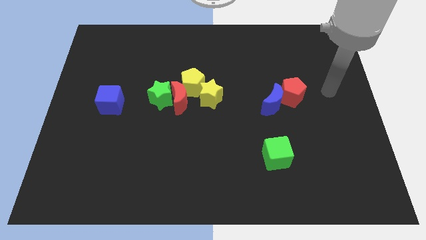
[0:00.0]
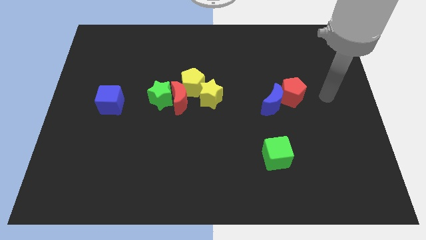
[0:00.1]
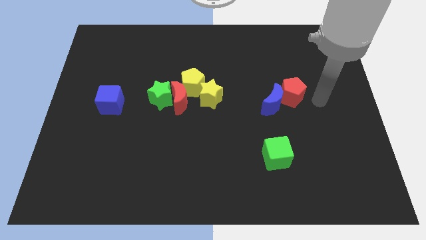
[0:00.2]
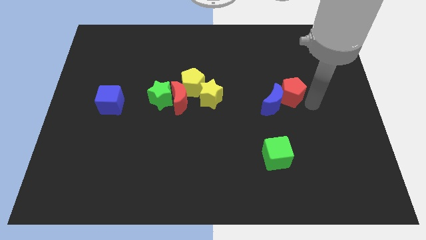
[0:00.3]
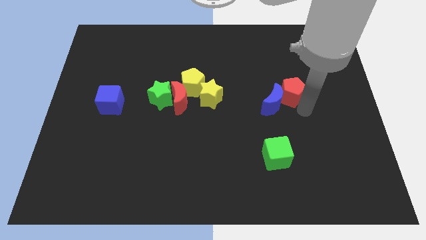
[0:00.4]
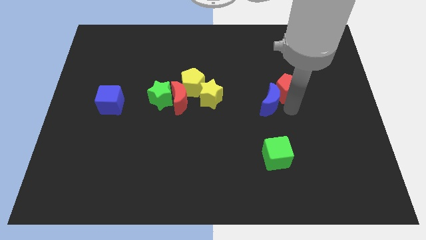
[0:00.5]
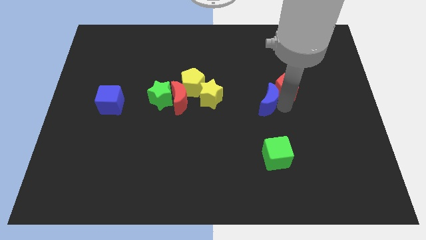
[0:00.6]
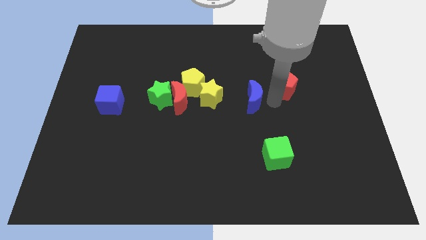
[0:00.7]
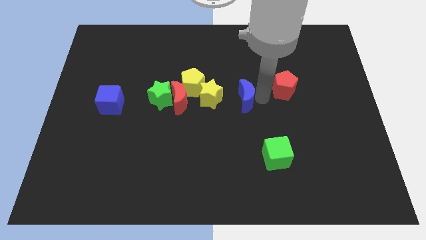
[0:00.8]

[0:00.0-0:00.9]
separate the red pentagon from the blue moon

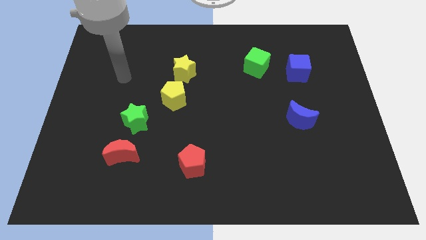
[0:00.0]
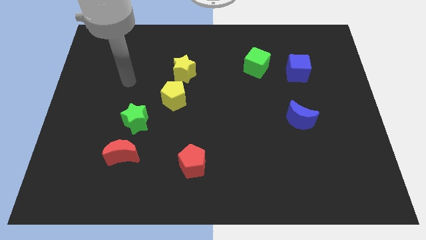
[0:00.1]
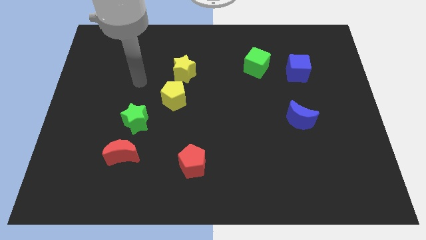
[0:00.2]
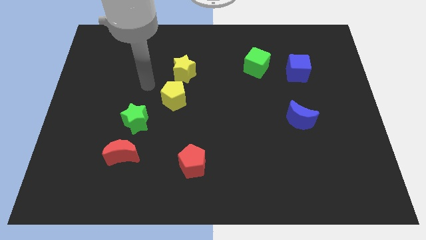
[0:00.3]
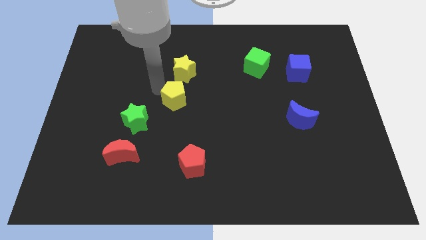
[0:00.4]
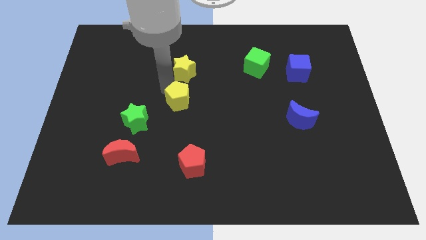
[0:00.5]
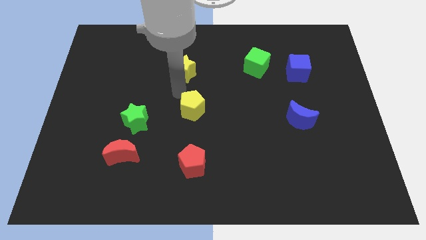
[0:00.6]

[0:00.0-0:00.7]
separate the yellow star from the yellow pentagon

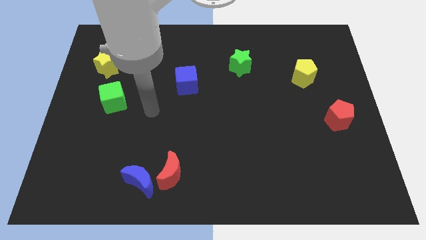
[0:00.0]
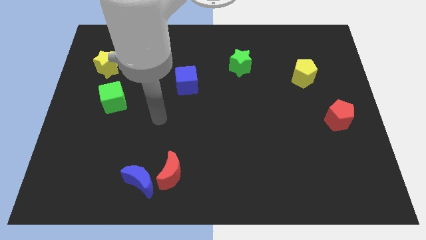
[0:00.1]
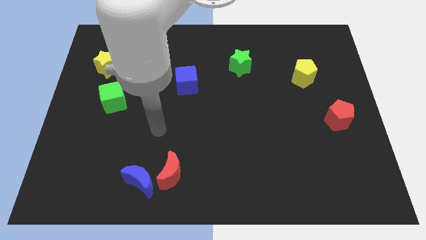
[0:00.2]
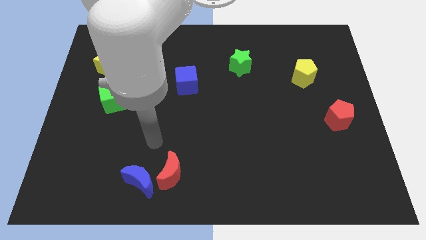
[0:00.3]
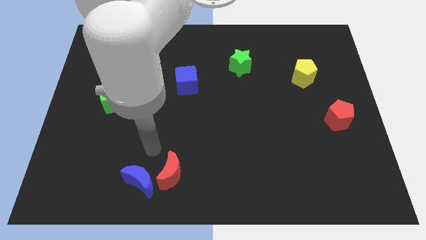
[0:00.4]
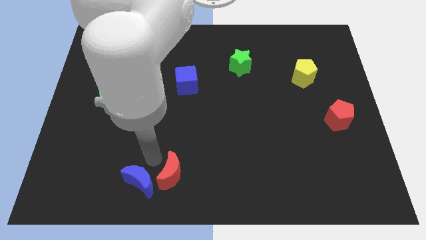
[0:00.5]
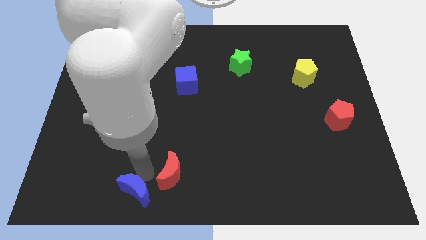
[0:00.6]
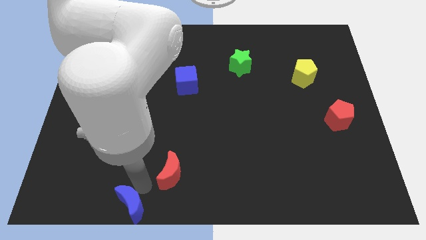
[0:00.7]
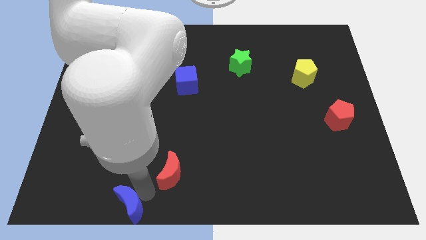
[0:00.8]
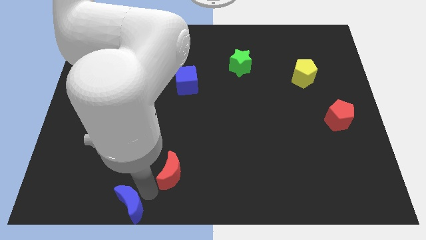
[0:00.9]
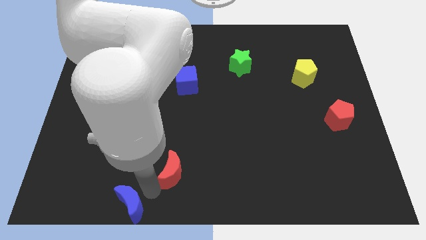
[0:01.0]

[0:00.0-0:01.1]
separate the red moon from the blue moon

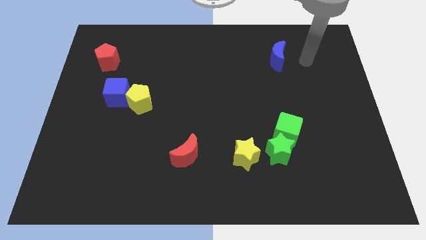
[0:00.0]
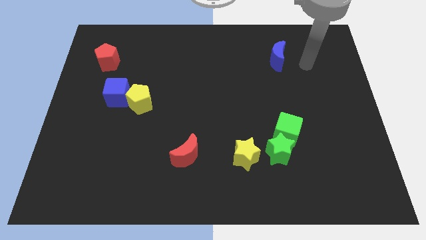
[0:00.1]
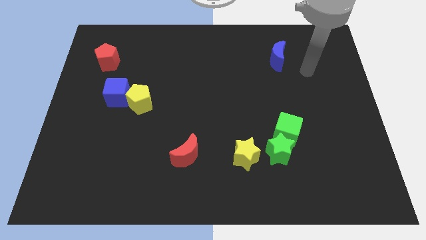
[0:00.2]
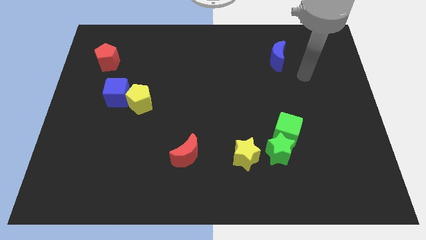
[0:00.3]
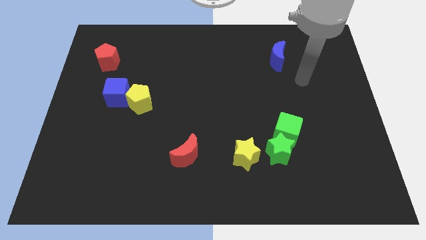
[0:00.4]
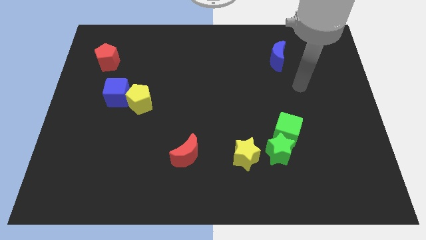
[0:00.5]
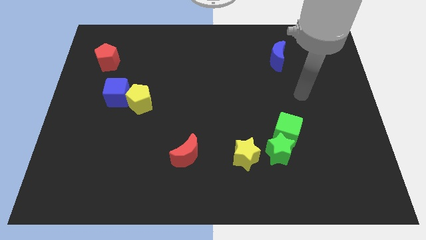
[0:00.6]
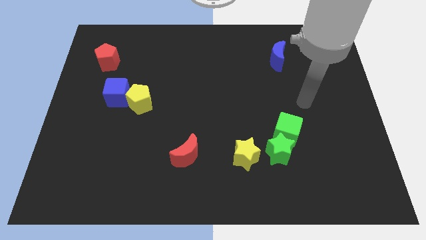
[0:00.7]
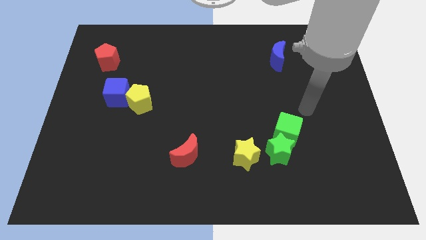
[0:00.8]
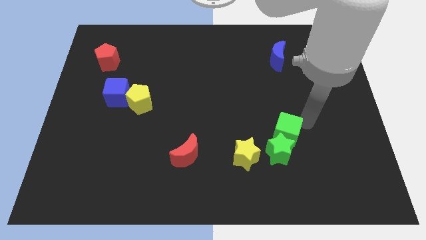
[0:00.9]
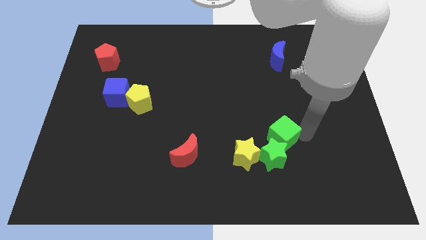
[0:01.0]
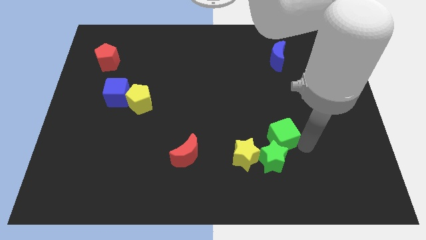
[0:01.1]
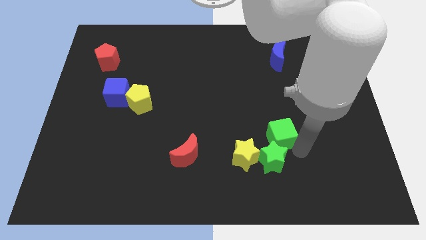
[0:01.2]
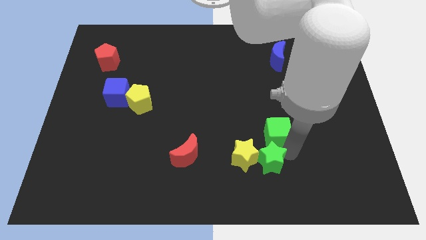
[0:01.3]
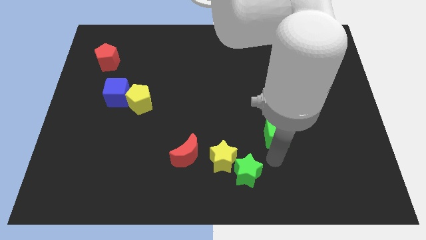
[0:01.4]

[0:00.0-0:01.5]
pull the green cube apart from the green star

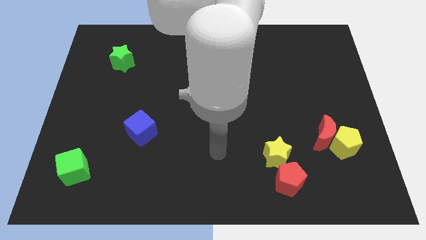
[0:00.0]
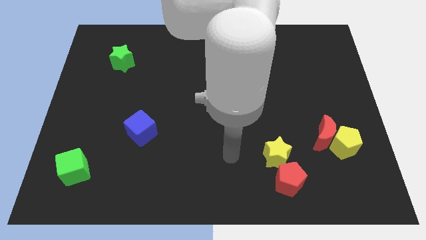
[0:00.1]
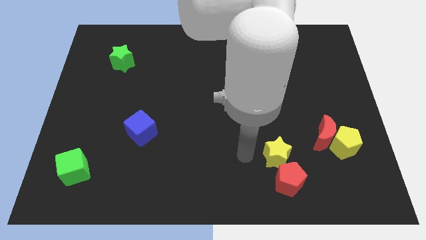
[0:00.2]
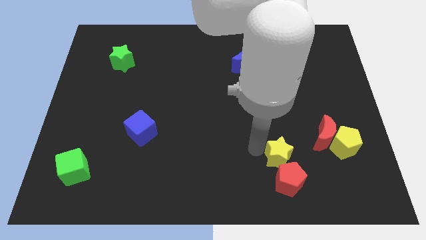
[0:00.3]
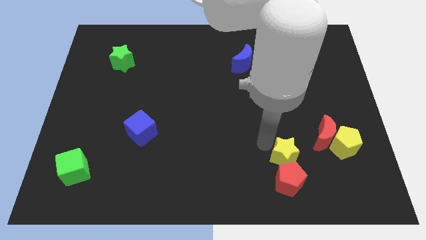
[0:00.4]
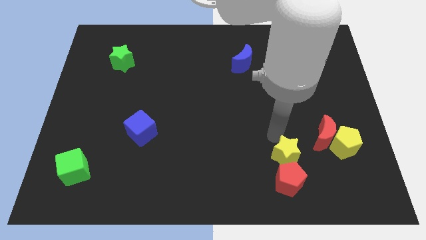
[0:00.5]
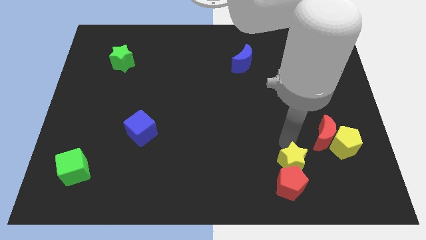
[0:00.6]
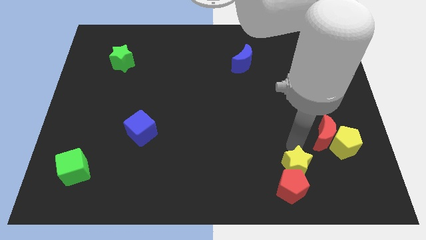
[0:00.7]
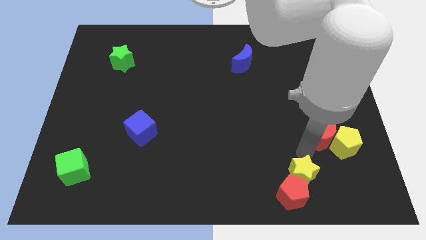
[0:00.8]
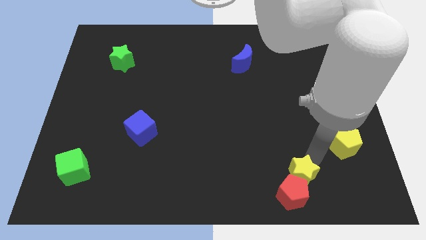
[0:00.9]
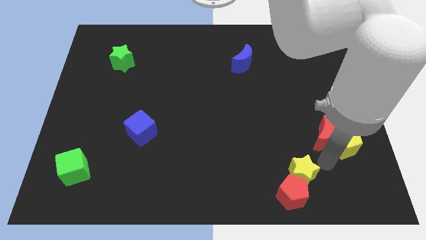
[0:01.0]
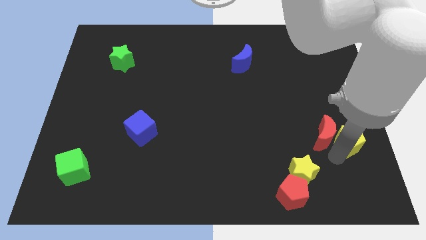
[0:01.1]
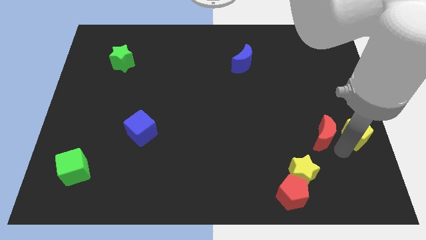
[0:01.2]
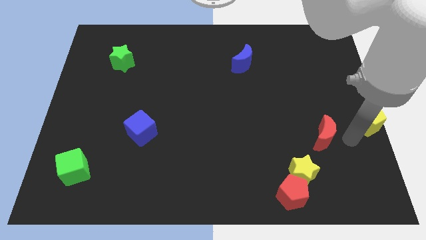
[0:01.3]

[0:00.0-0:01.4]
move the red moon away from the yellow pentagon

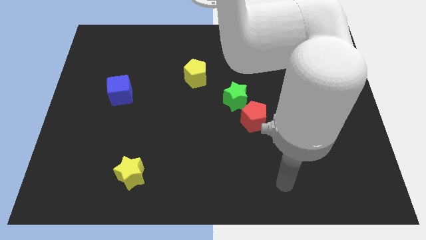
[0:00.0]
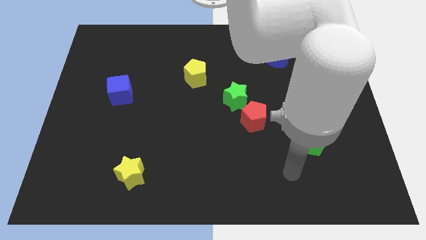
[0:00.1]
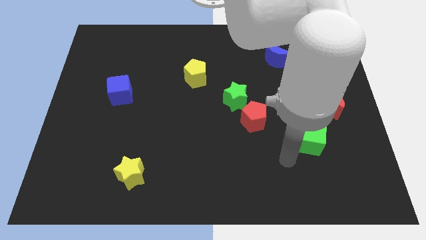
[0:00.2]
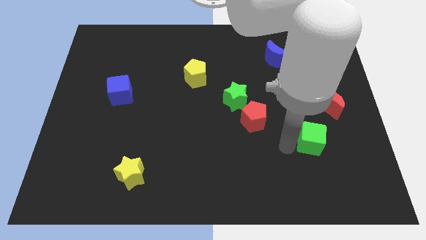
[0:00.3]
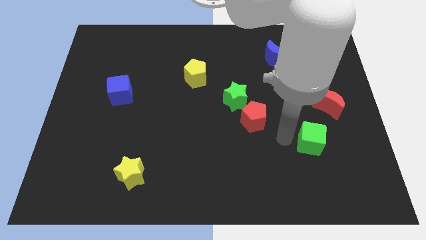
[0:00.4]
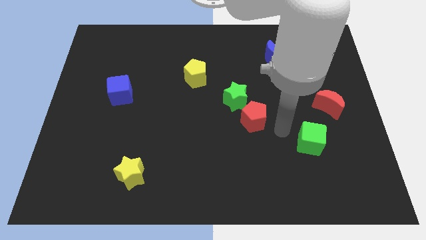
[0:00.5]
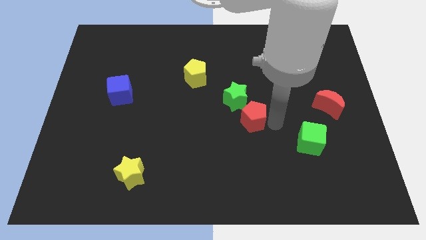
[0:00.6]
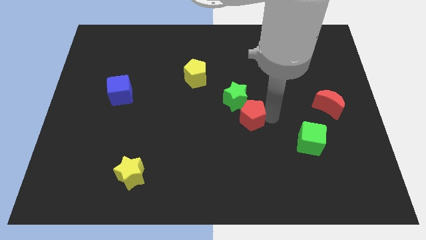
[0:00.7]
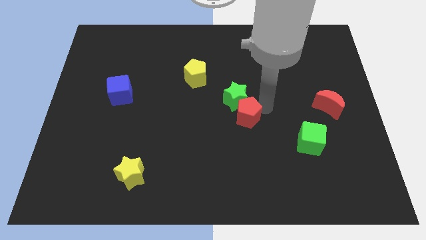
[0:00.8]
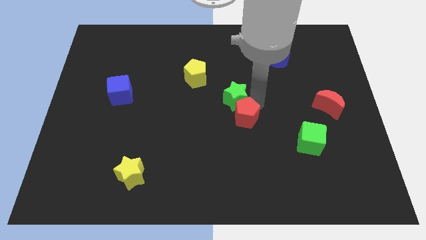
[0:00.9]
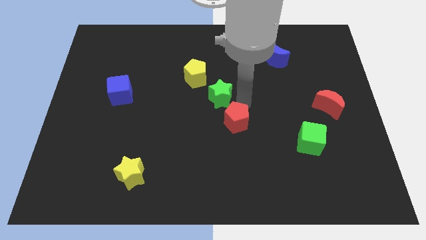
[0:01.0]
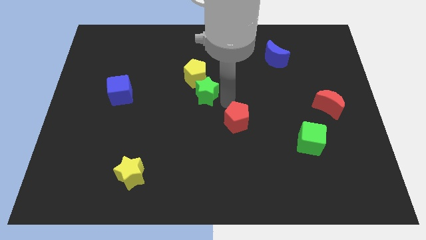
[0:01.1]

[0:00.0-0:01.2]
move the red pentagon away from the green star

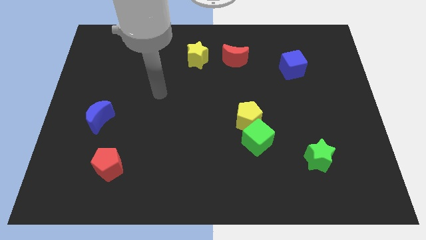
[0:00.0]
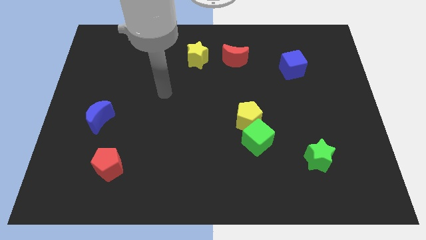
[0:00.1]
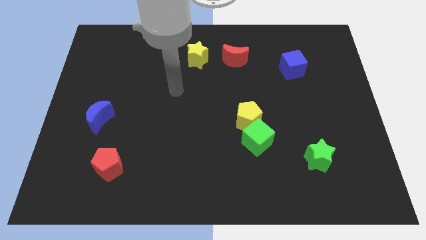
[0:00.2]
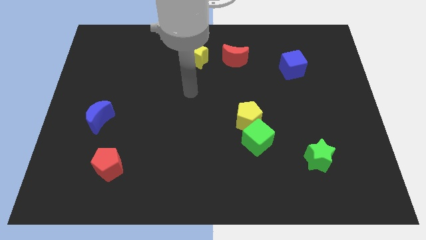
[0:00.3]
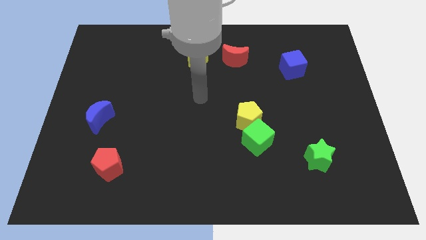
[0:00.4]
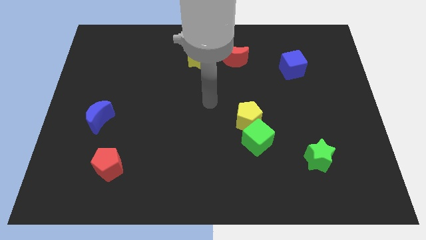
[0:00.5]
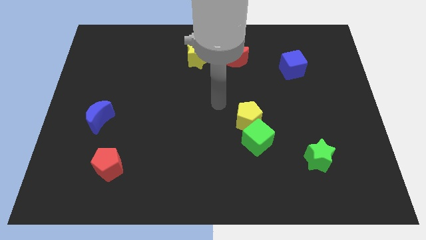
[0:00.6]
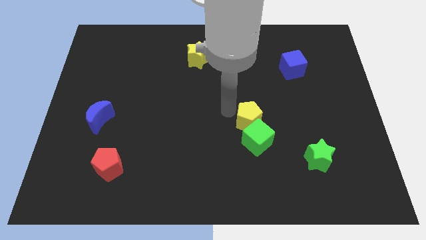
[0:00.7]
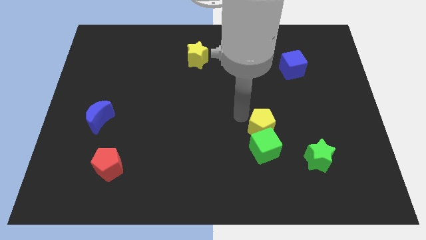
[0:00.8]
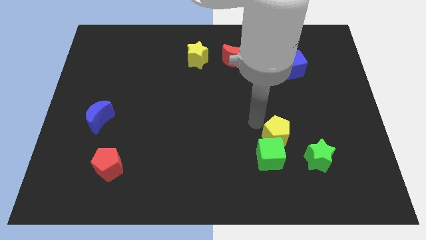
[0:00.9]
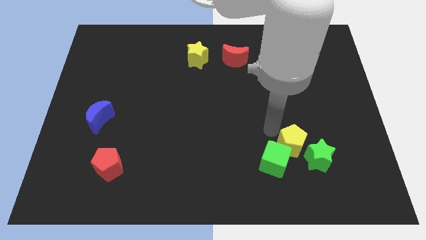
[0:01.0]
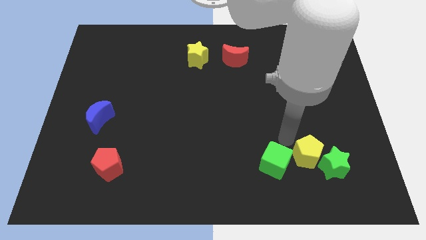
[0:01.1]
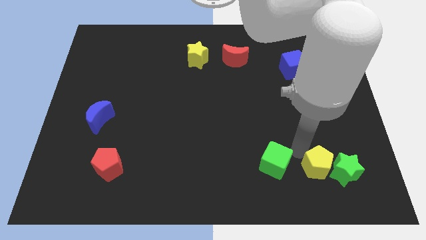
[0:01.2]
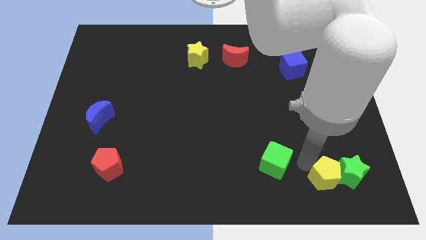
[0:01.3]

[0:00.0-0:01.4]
pull the green cube apart from the yellow pentagon

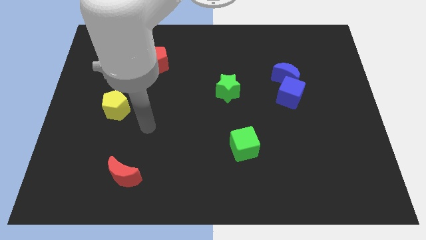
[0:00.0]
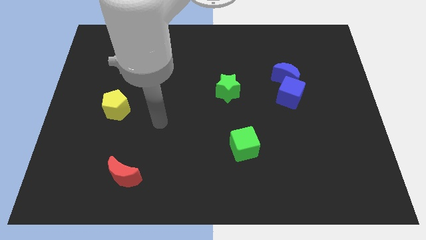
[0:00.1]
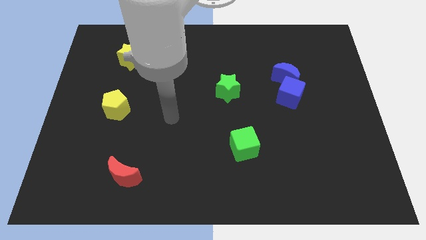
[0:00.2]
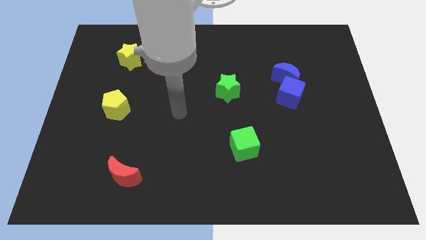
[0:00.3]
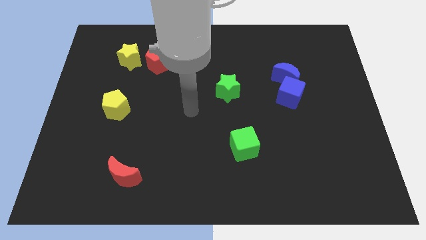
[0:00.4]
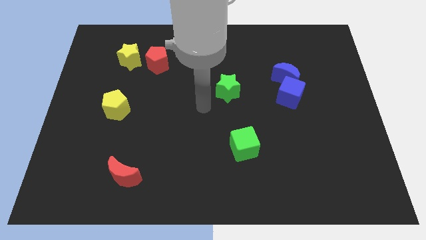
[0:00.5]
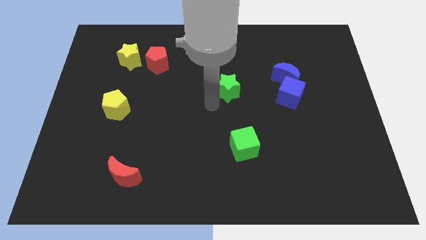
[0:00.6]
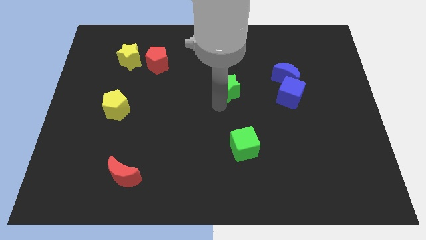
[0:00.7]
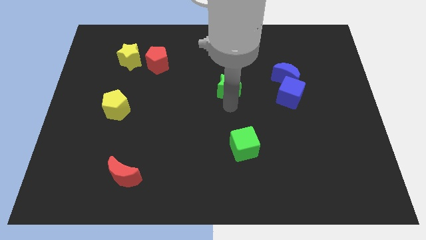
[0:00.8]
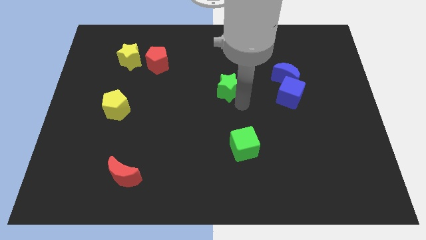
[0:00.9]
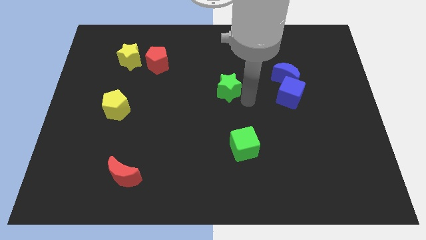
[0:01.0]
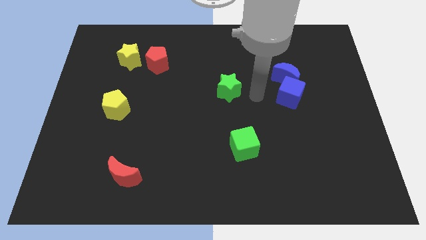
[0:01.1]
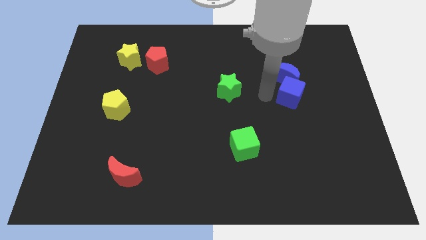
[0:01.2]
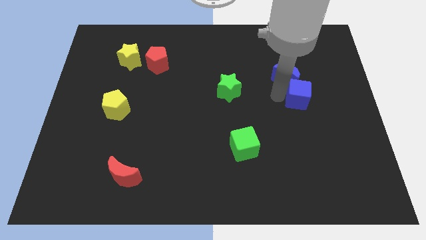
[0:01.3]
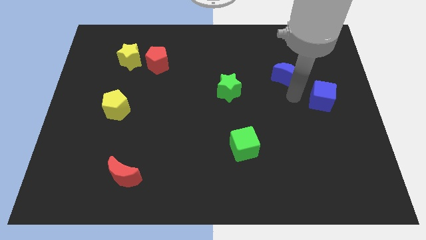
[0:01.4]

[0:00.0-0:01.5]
separate the blue moon from the blue cube
